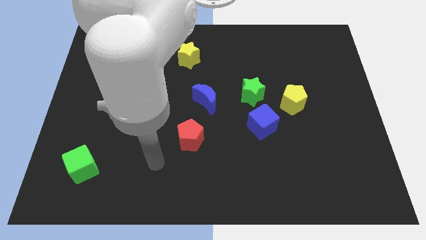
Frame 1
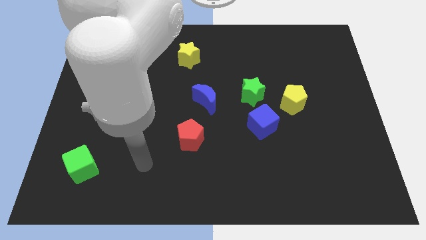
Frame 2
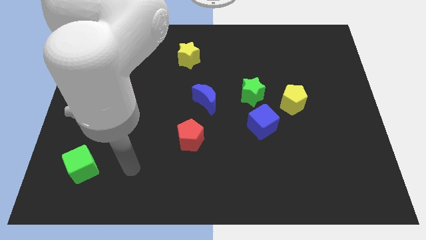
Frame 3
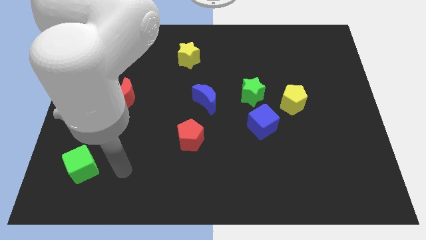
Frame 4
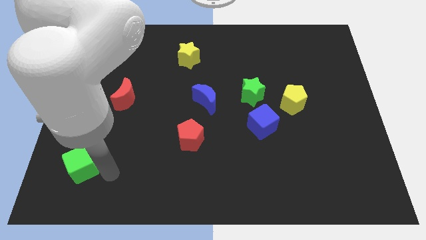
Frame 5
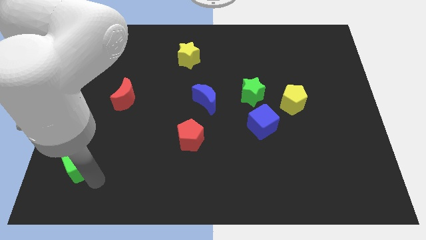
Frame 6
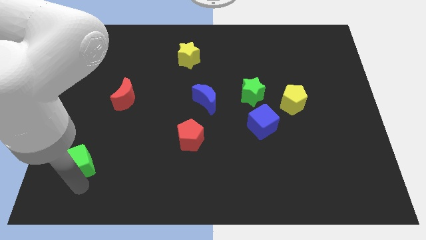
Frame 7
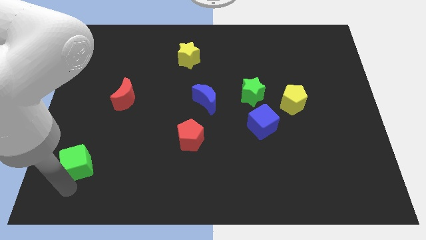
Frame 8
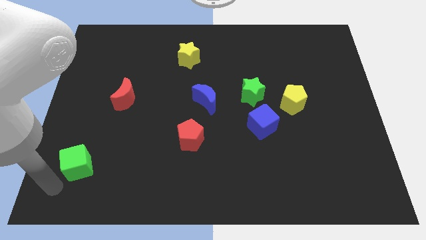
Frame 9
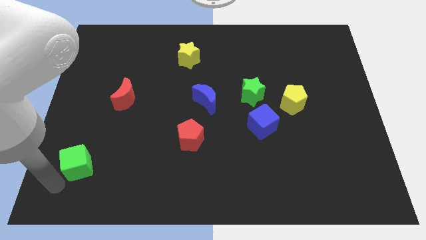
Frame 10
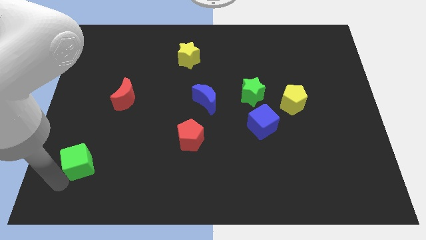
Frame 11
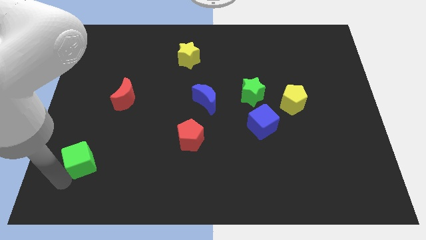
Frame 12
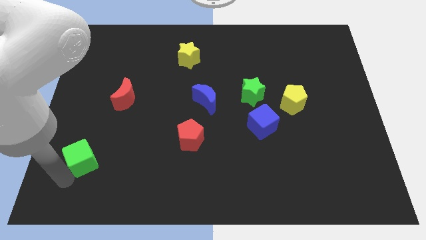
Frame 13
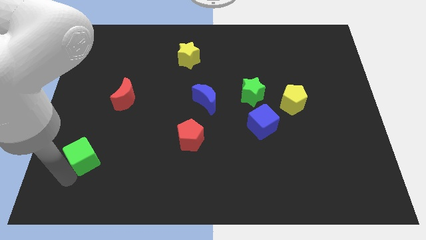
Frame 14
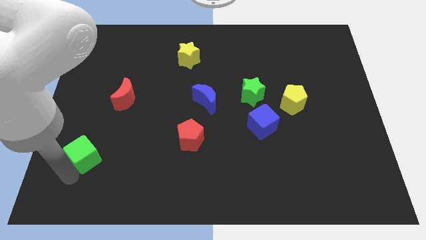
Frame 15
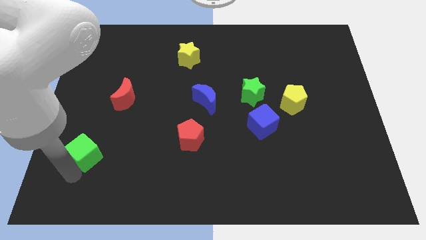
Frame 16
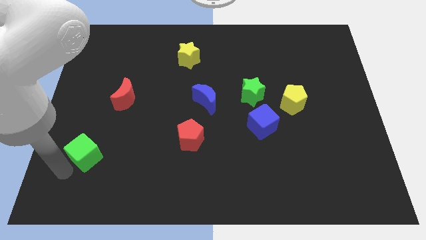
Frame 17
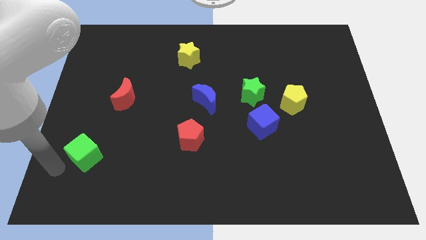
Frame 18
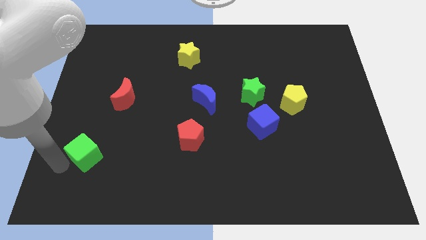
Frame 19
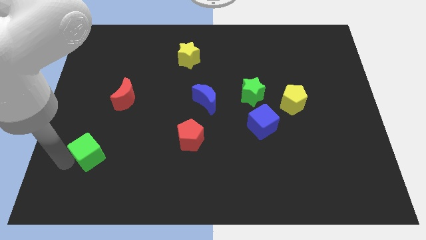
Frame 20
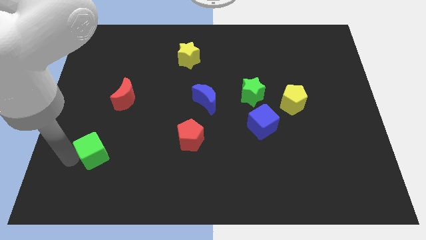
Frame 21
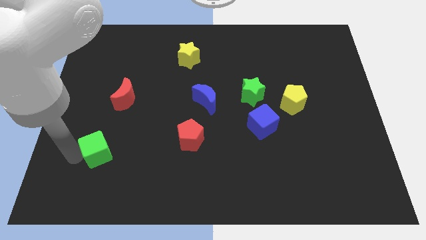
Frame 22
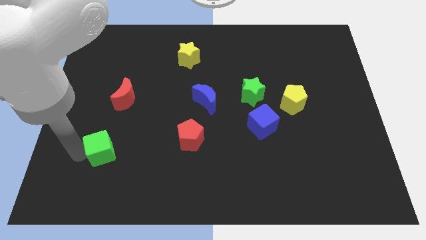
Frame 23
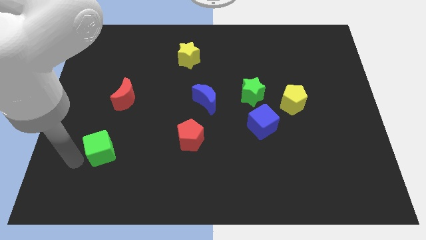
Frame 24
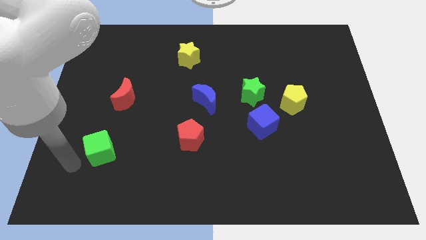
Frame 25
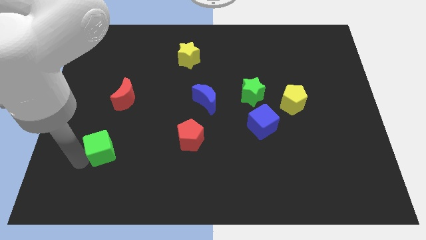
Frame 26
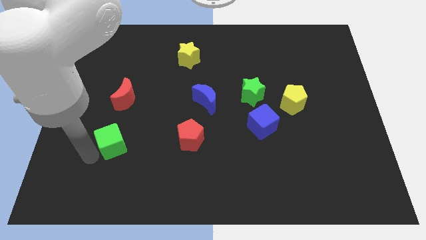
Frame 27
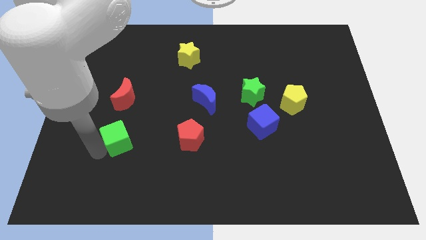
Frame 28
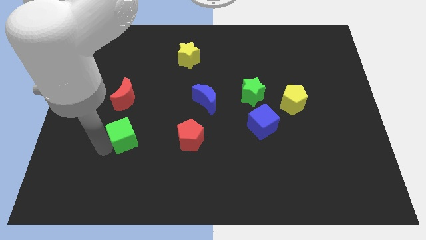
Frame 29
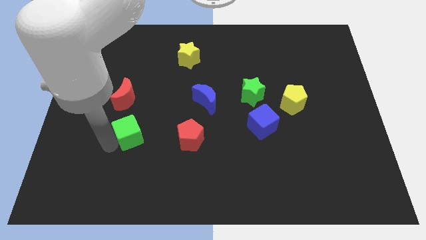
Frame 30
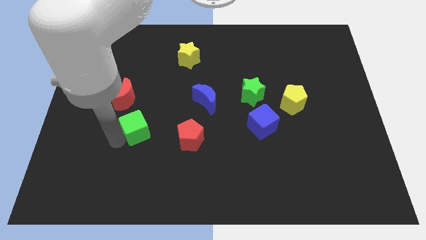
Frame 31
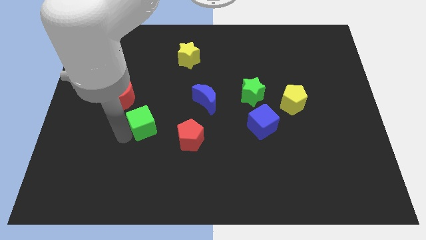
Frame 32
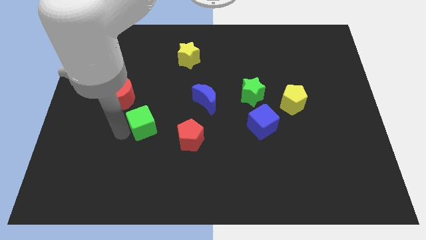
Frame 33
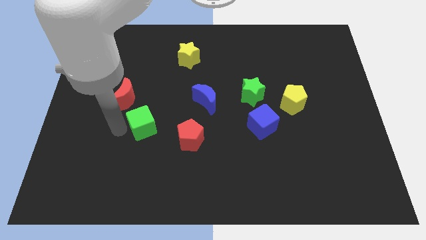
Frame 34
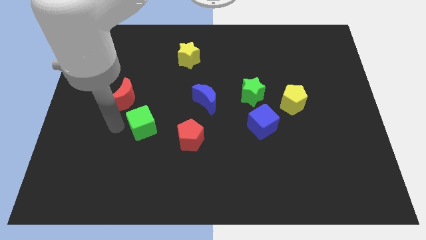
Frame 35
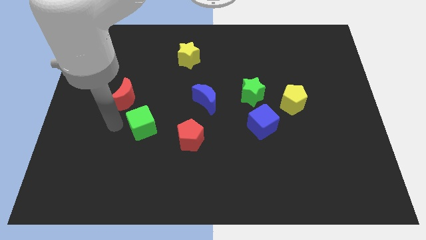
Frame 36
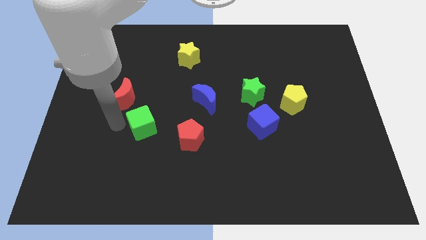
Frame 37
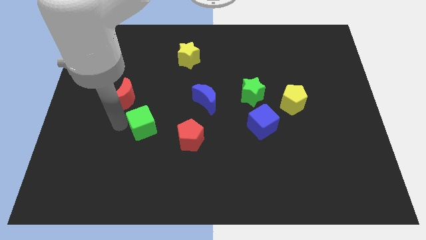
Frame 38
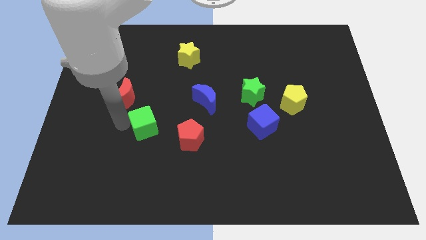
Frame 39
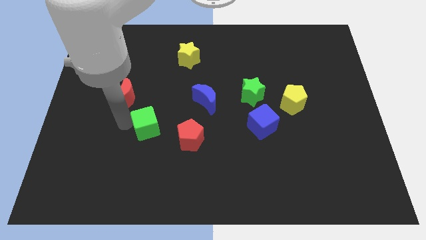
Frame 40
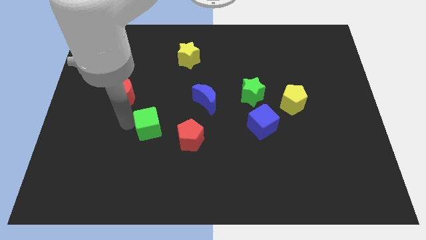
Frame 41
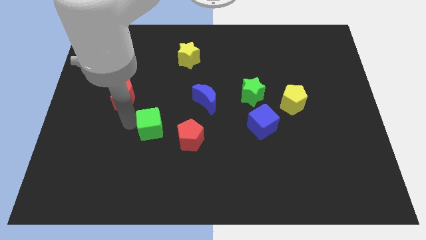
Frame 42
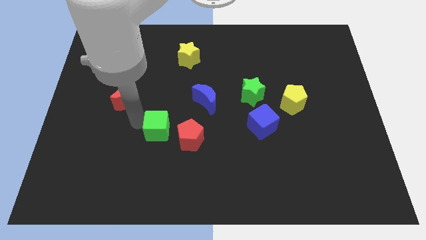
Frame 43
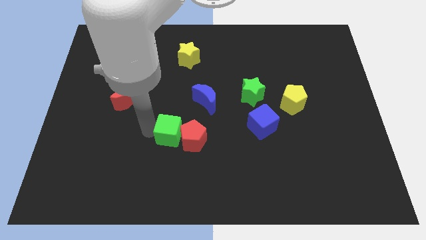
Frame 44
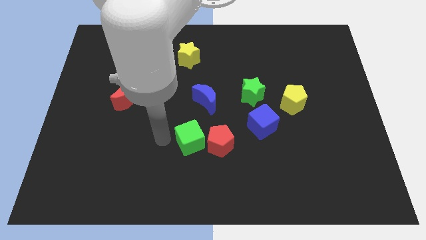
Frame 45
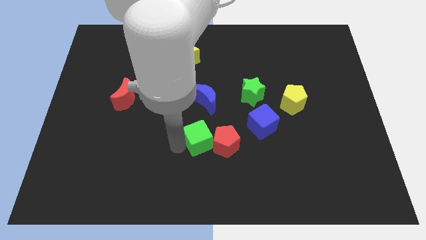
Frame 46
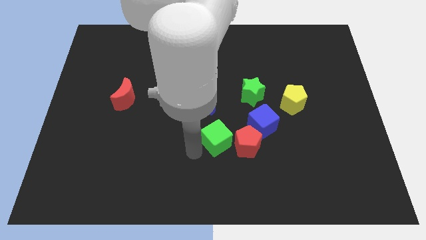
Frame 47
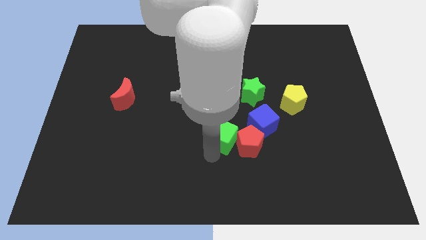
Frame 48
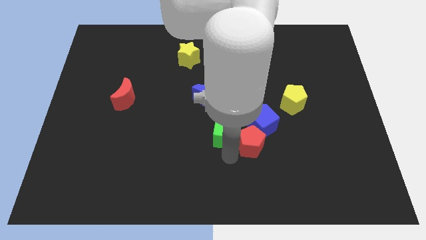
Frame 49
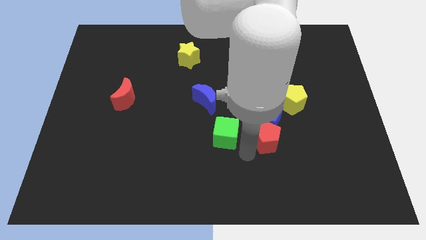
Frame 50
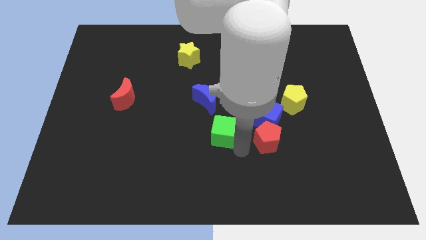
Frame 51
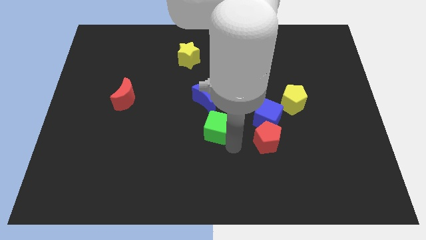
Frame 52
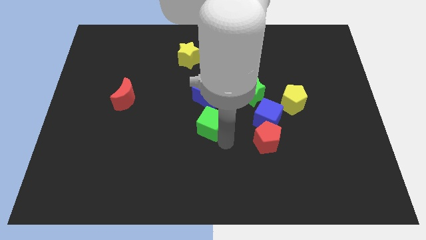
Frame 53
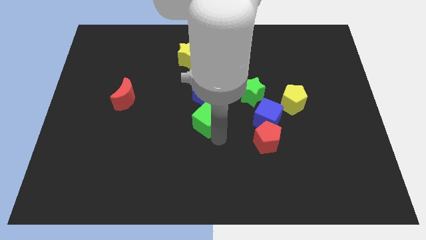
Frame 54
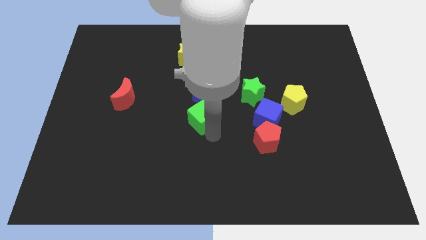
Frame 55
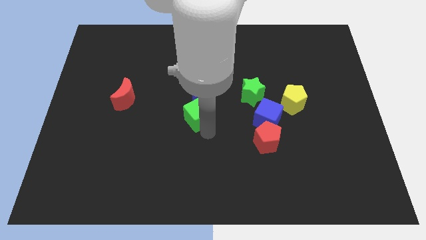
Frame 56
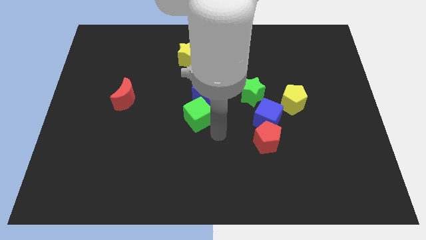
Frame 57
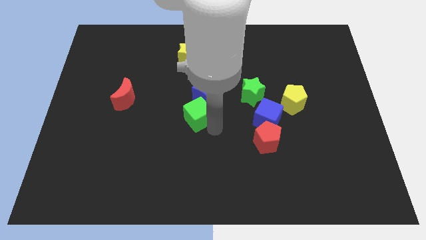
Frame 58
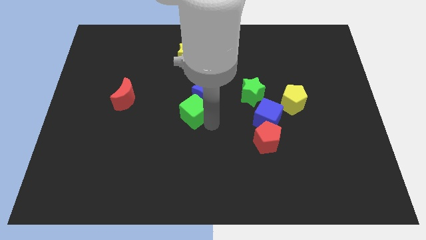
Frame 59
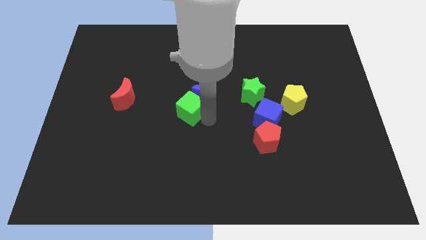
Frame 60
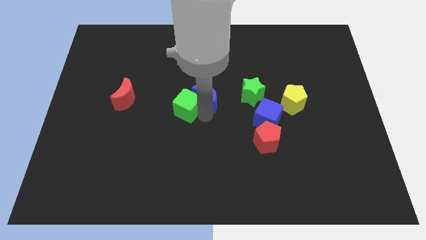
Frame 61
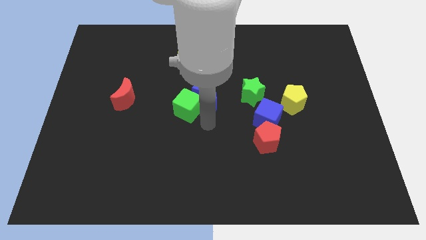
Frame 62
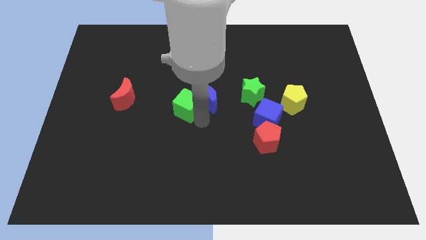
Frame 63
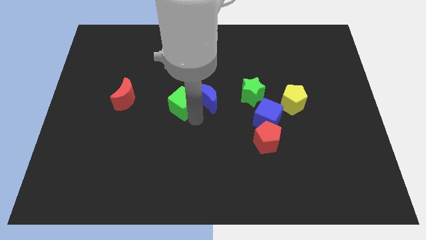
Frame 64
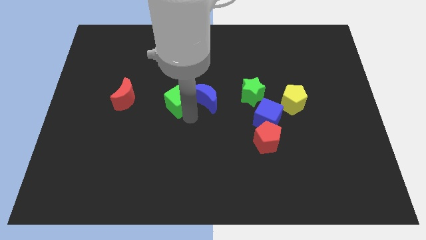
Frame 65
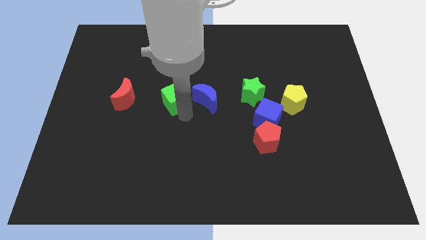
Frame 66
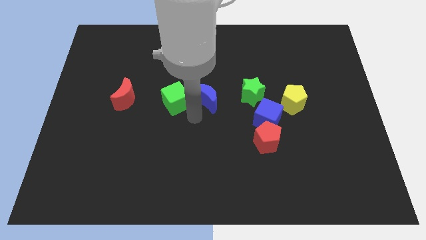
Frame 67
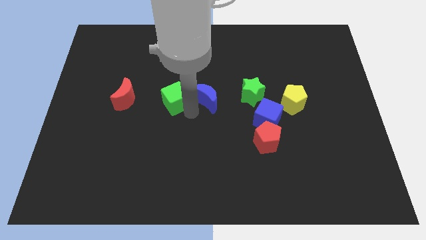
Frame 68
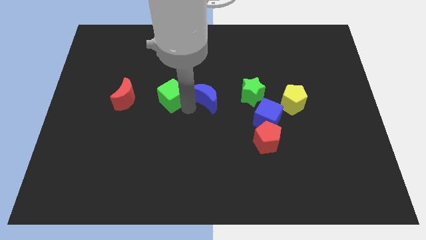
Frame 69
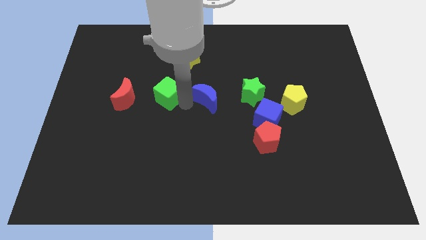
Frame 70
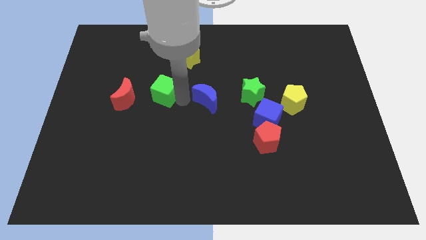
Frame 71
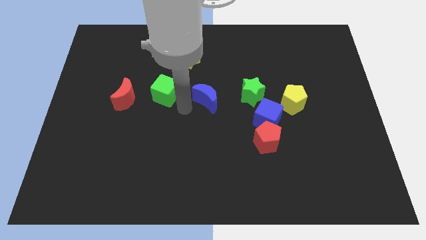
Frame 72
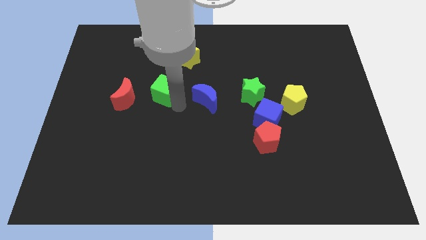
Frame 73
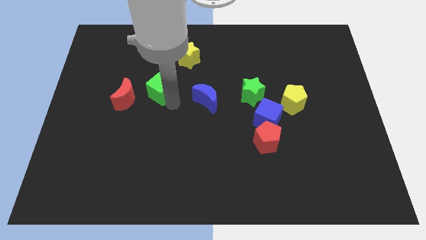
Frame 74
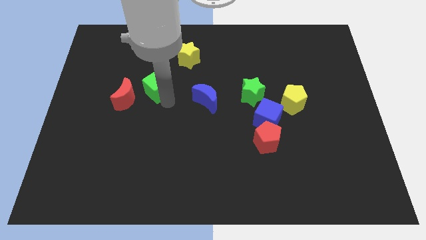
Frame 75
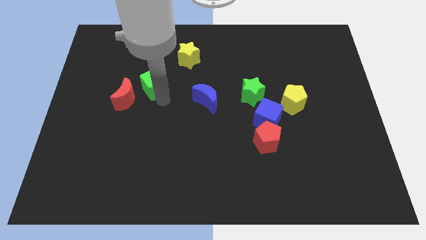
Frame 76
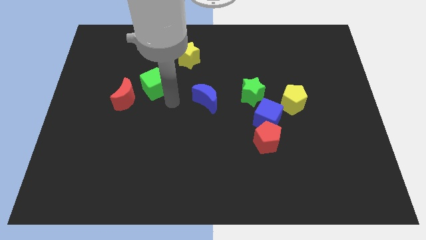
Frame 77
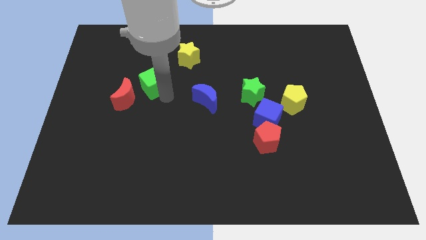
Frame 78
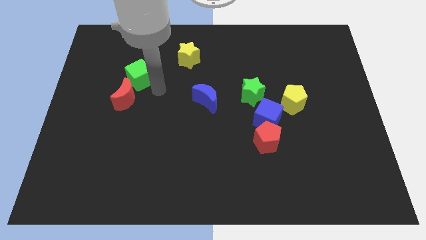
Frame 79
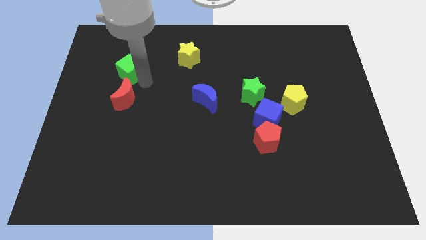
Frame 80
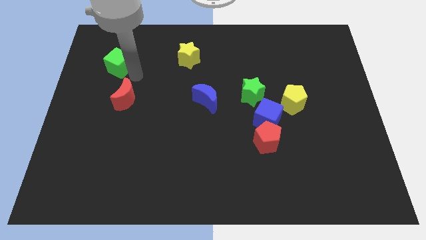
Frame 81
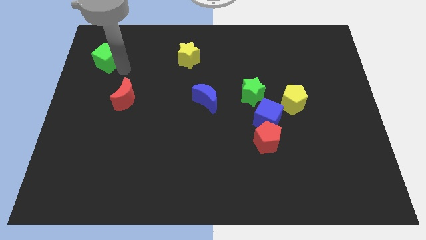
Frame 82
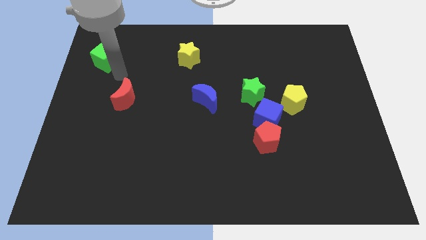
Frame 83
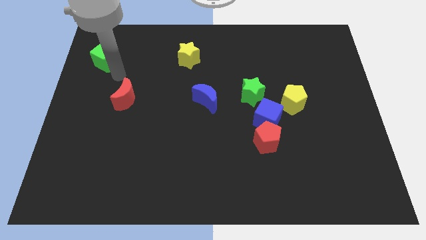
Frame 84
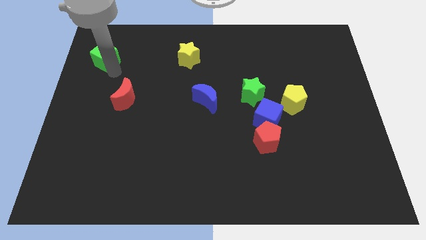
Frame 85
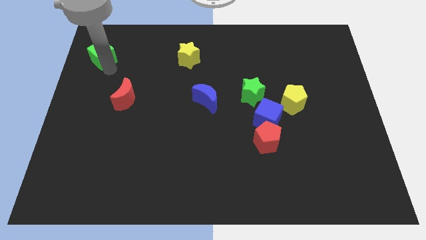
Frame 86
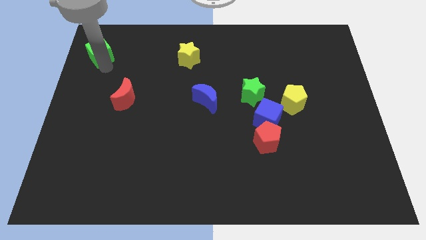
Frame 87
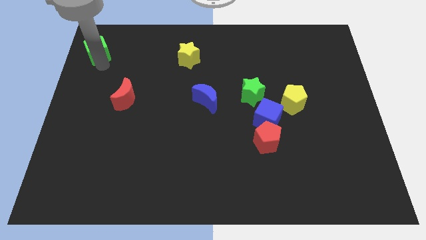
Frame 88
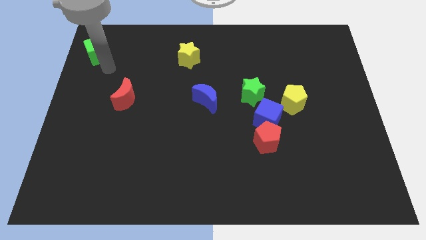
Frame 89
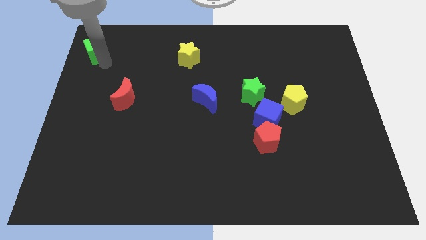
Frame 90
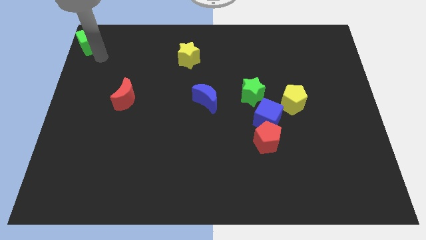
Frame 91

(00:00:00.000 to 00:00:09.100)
move the green cube to the top left of the board
